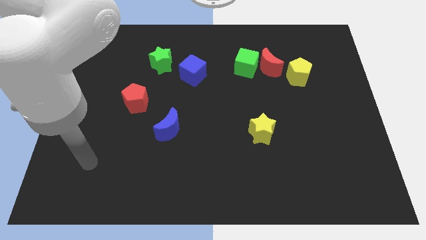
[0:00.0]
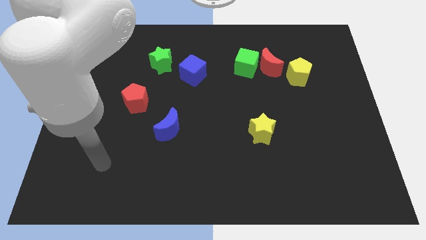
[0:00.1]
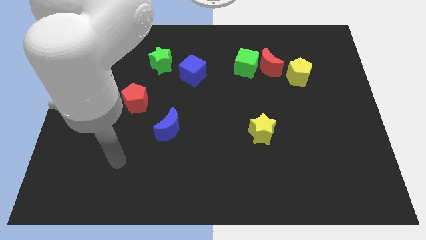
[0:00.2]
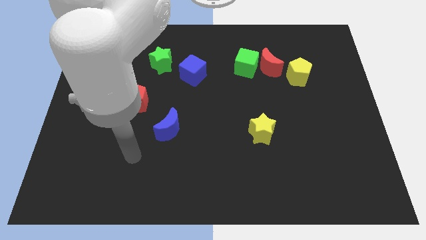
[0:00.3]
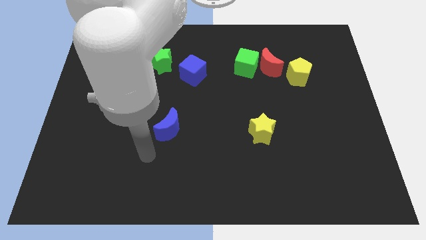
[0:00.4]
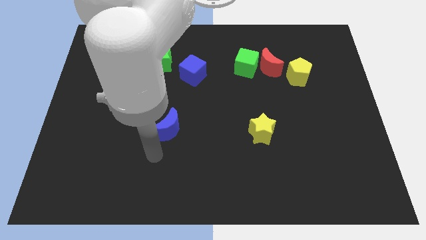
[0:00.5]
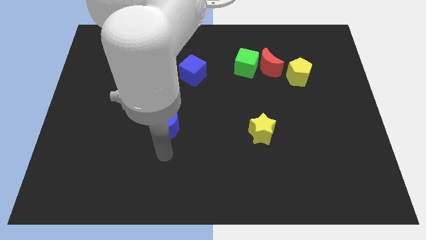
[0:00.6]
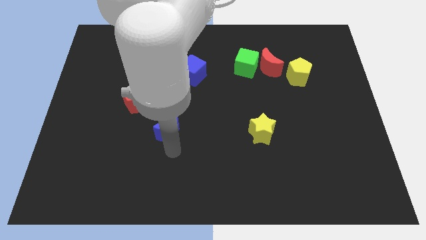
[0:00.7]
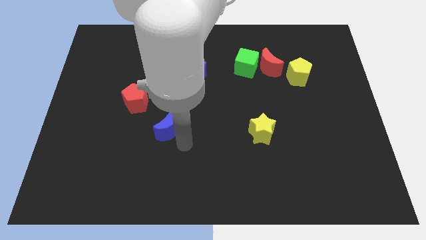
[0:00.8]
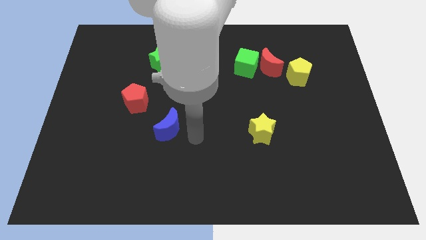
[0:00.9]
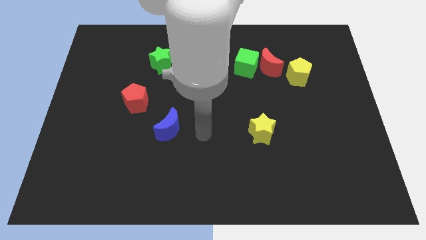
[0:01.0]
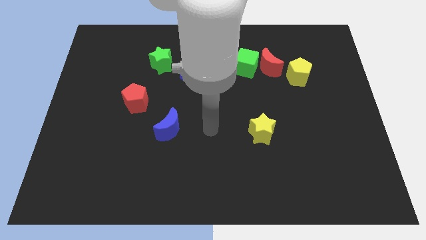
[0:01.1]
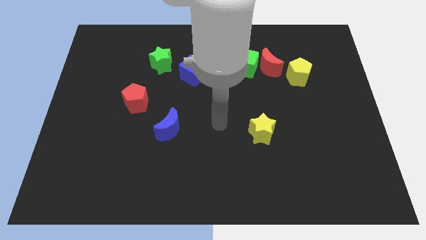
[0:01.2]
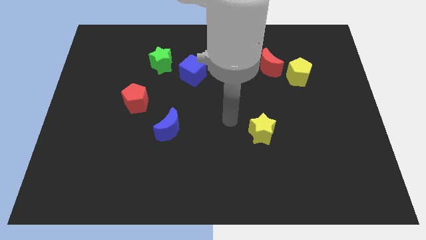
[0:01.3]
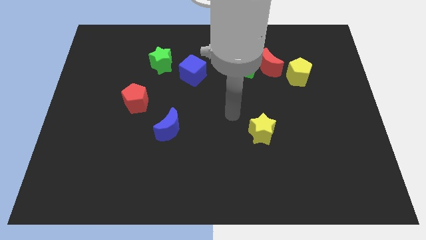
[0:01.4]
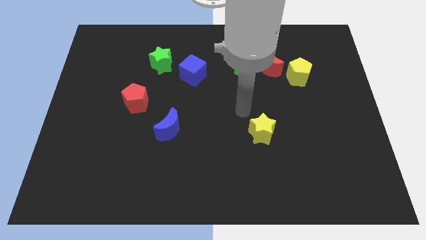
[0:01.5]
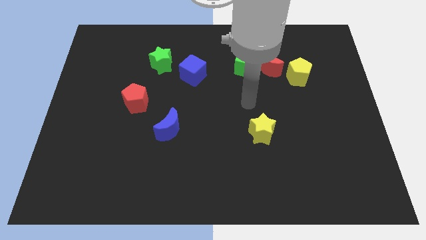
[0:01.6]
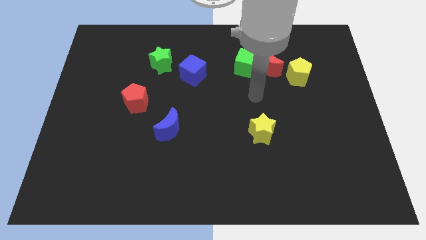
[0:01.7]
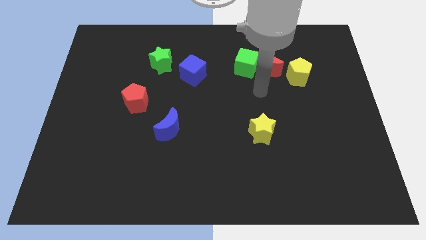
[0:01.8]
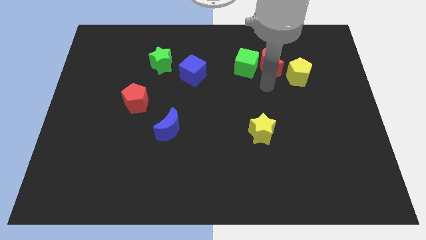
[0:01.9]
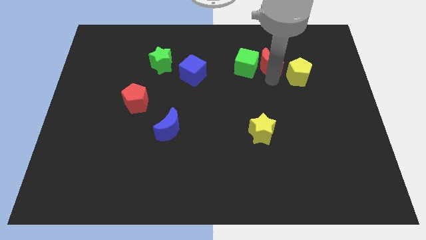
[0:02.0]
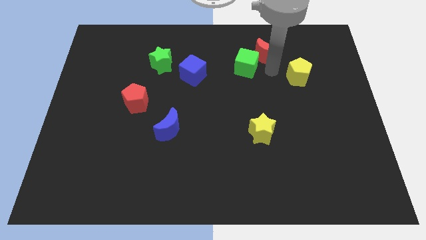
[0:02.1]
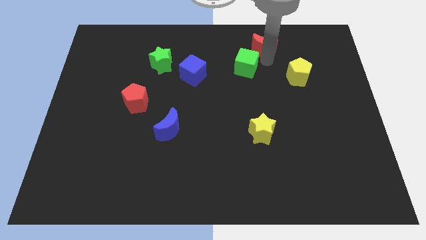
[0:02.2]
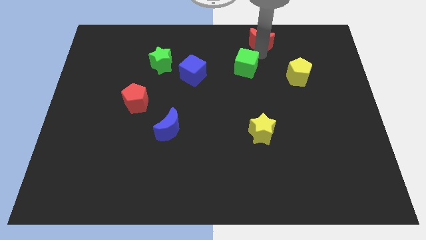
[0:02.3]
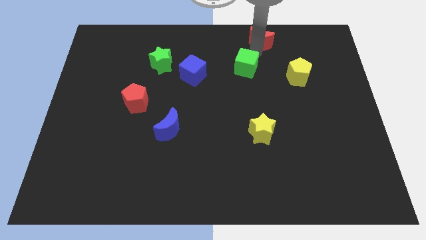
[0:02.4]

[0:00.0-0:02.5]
separate the green cube from the red moon

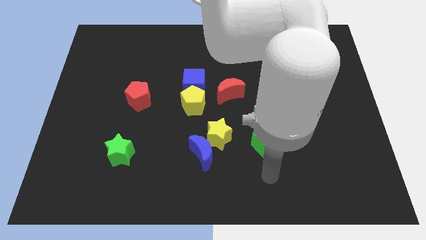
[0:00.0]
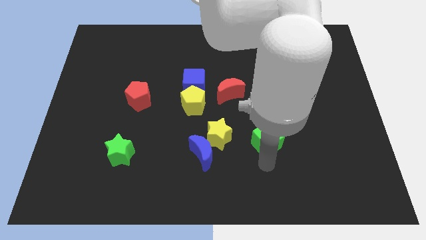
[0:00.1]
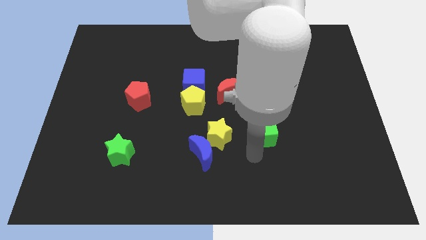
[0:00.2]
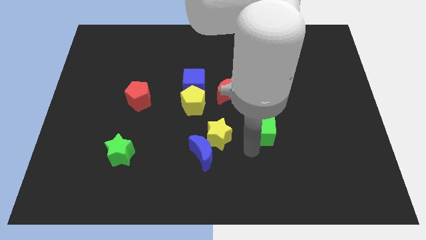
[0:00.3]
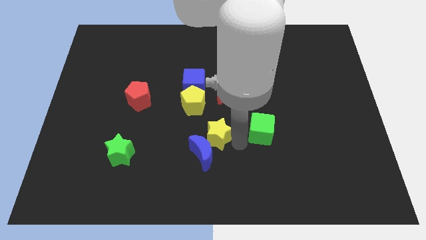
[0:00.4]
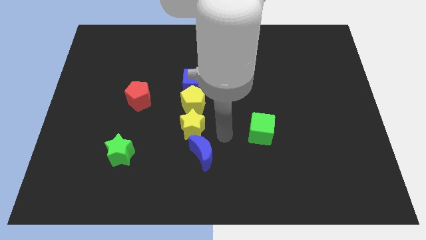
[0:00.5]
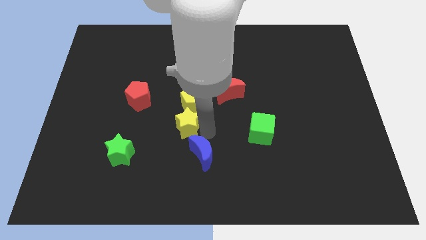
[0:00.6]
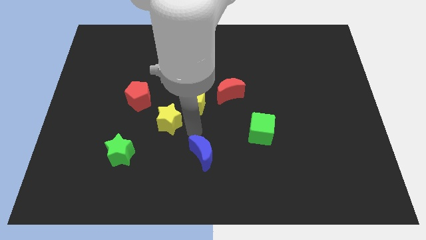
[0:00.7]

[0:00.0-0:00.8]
move the blue moon away from the yellow star

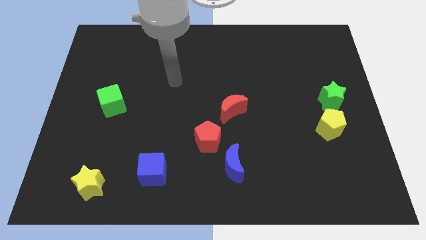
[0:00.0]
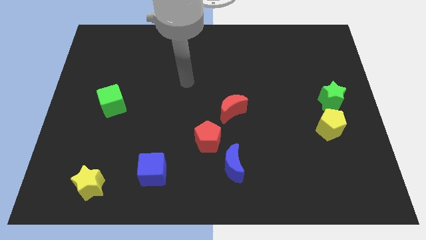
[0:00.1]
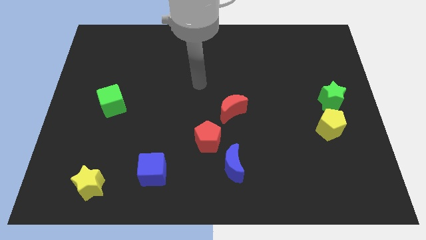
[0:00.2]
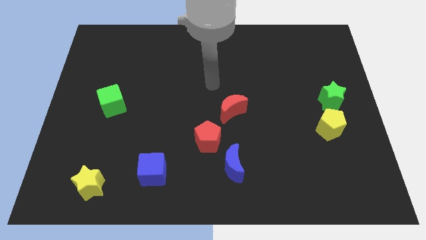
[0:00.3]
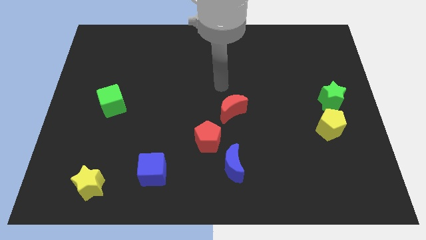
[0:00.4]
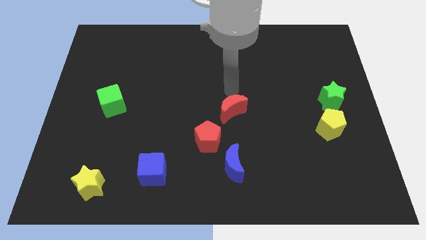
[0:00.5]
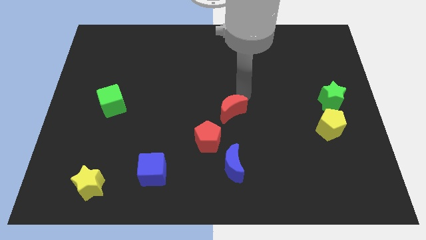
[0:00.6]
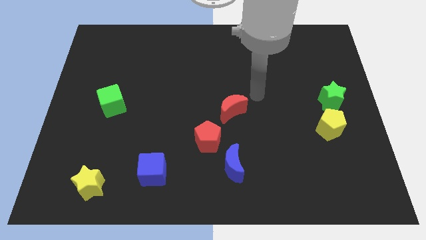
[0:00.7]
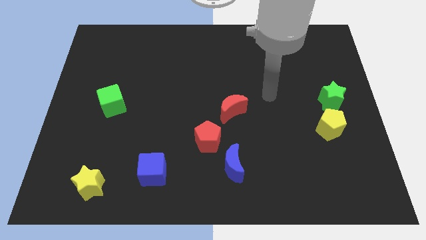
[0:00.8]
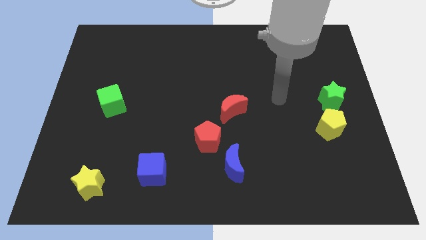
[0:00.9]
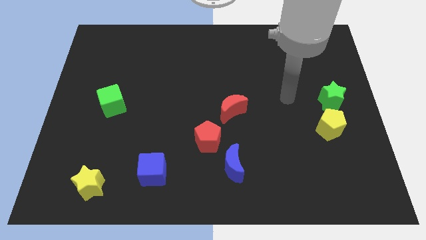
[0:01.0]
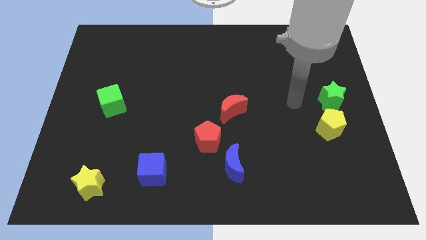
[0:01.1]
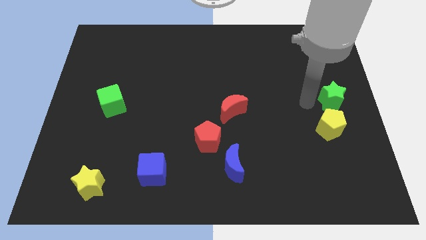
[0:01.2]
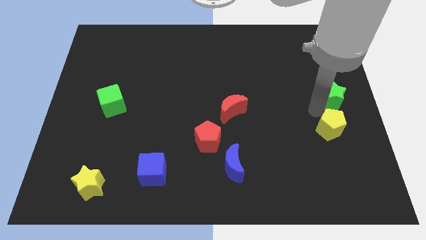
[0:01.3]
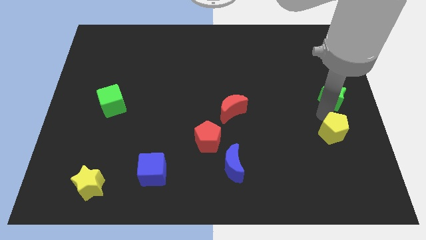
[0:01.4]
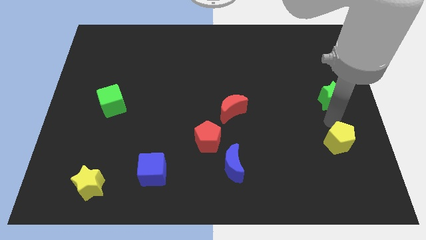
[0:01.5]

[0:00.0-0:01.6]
move the green star away from the yellow pentagon

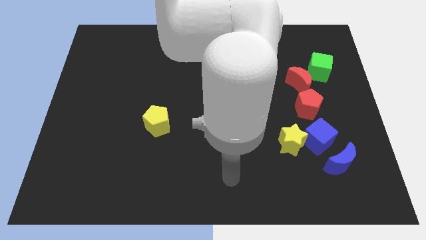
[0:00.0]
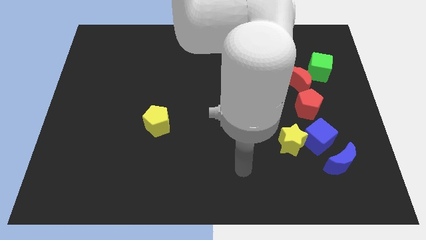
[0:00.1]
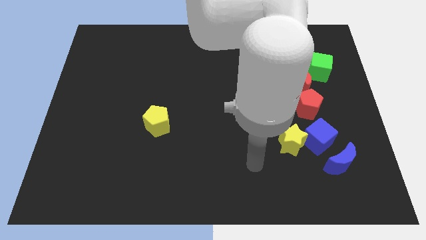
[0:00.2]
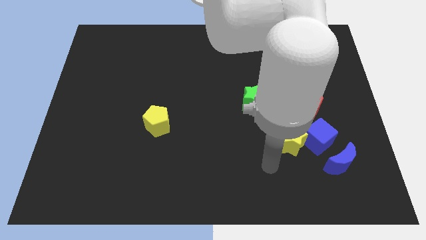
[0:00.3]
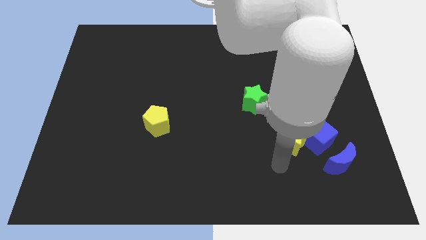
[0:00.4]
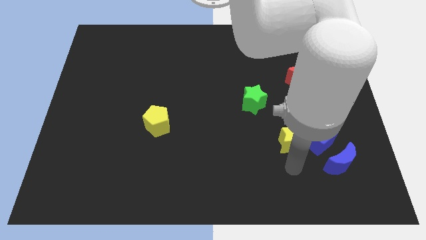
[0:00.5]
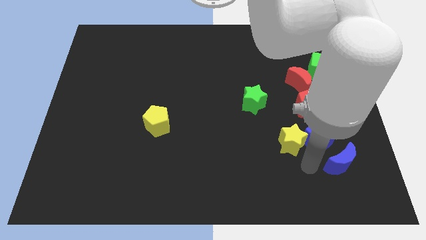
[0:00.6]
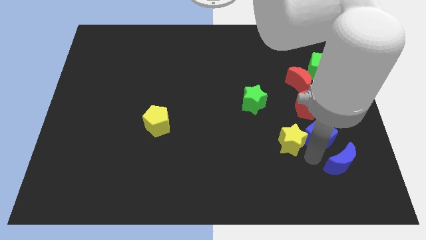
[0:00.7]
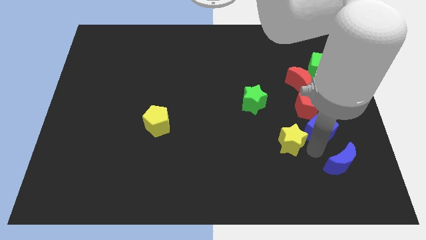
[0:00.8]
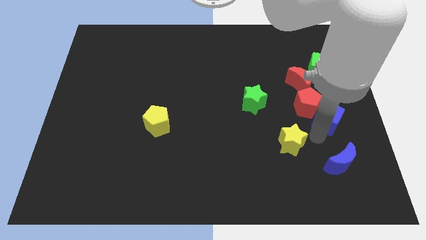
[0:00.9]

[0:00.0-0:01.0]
separate the yellow star from the blue cube

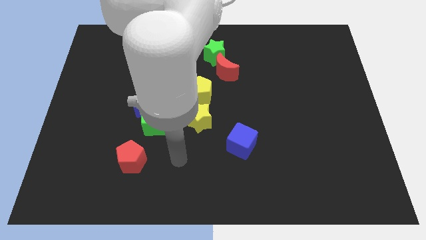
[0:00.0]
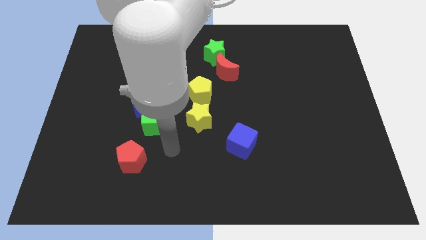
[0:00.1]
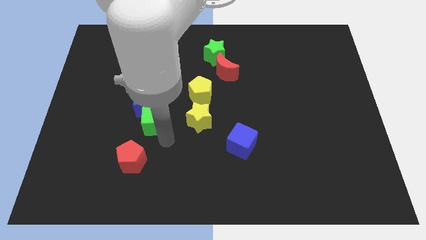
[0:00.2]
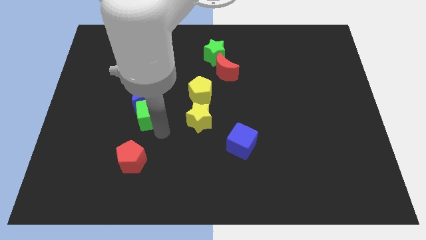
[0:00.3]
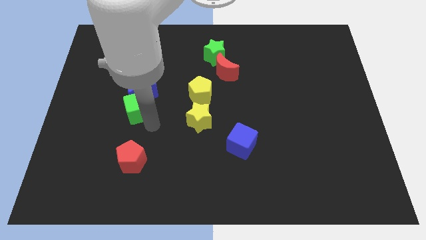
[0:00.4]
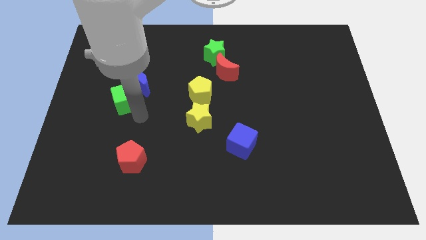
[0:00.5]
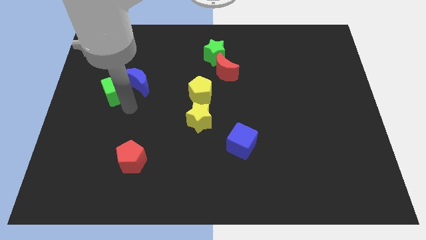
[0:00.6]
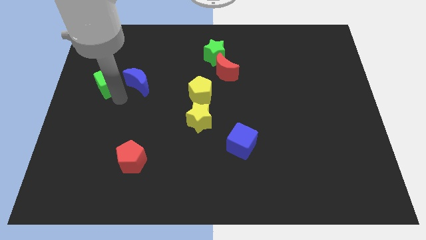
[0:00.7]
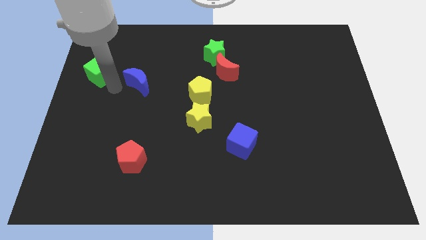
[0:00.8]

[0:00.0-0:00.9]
move the blue moon away from the green cube

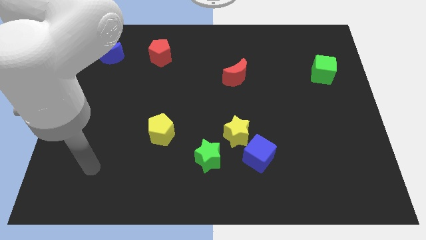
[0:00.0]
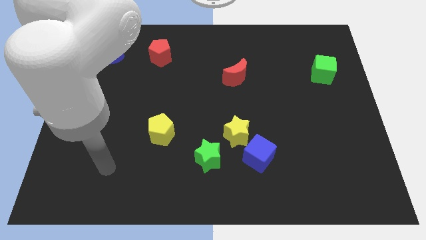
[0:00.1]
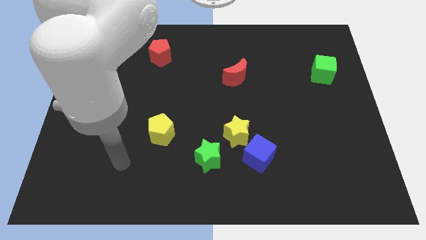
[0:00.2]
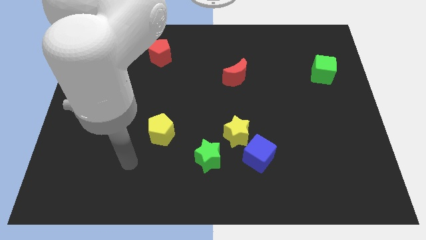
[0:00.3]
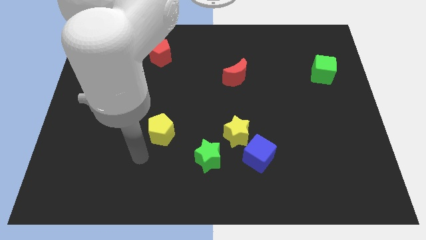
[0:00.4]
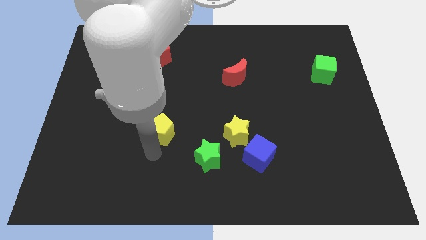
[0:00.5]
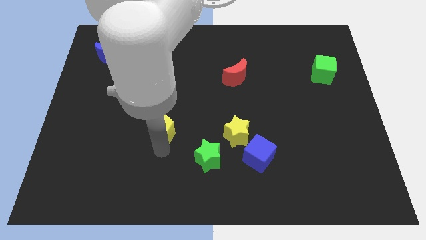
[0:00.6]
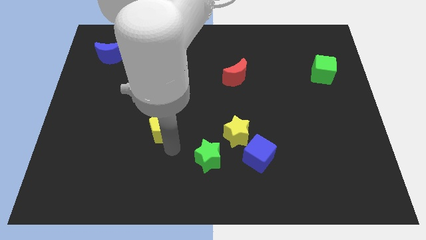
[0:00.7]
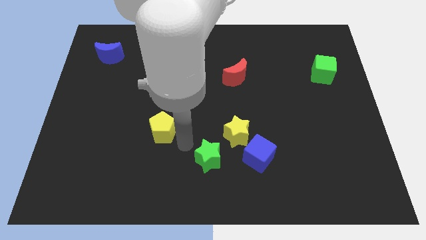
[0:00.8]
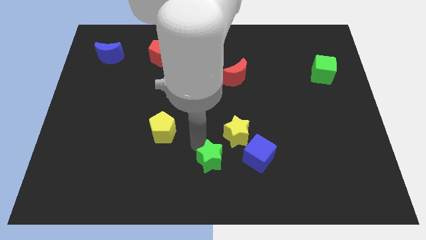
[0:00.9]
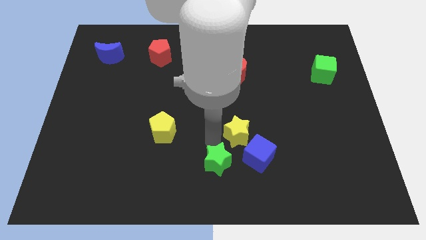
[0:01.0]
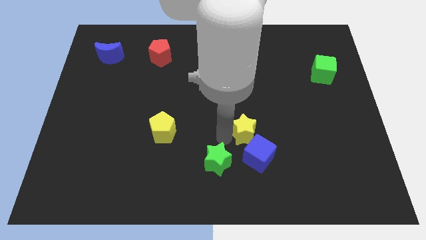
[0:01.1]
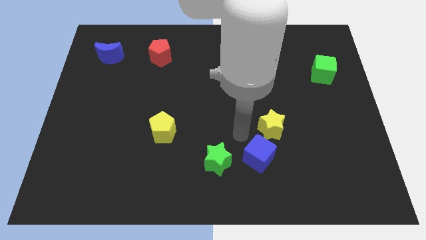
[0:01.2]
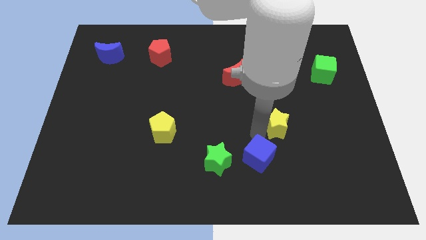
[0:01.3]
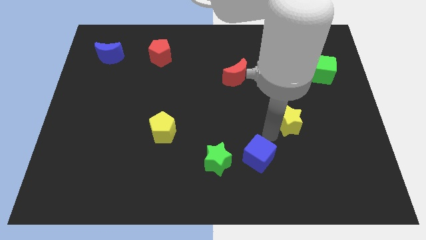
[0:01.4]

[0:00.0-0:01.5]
separate the blue cube from the yellow star

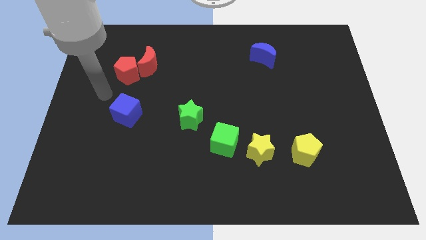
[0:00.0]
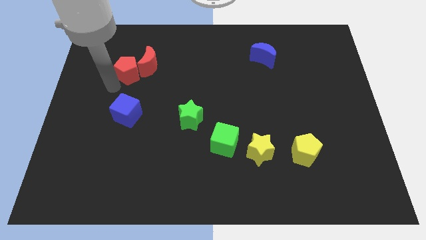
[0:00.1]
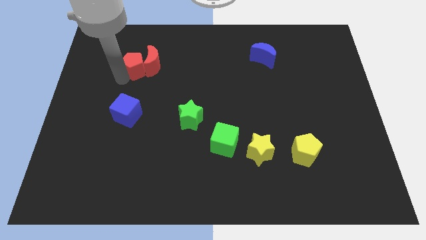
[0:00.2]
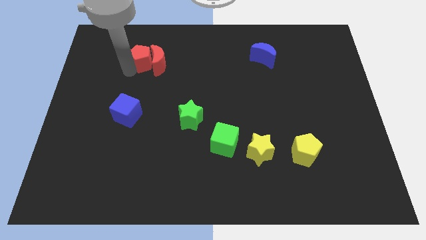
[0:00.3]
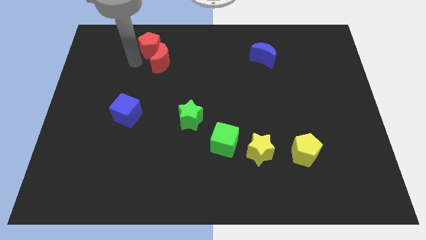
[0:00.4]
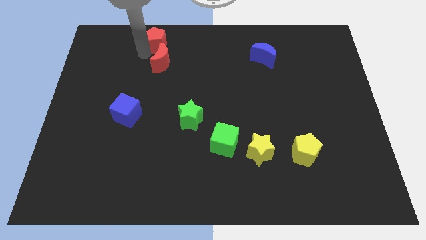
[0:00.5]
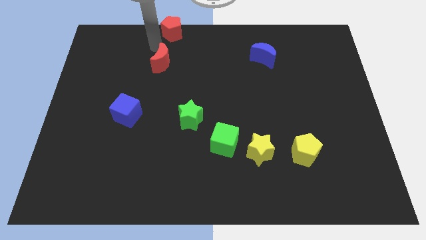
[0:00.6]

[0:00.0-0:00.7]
pull the red moon apart from the red pentagon
